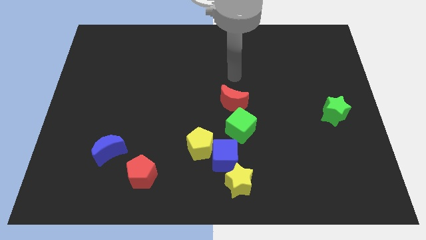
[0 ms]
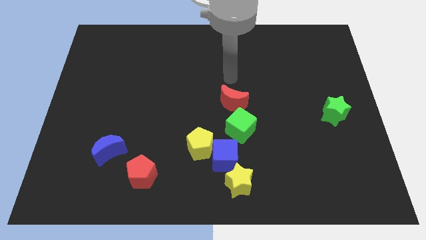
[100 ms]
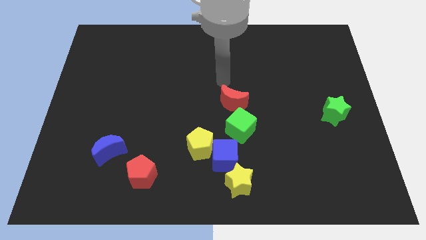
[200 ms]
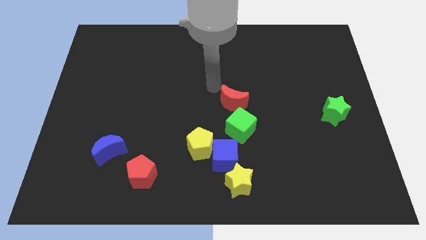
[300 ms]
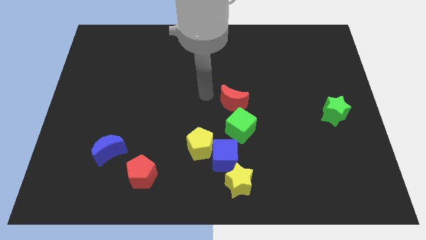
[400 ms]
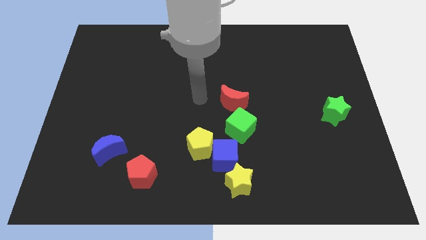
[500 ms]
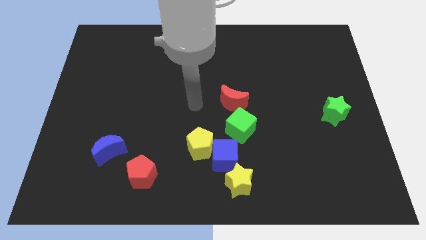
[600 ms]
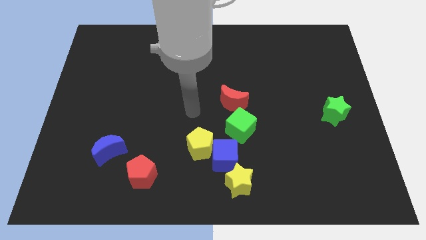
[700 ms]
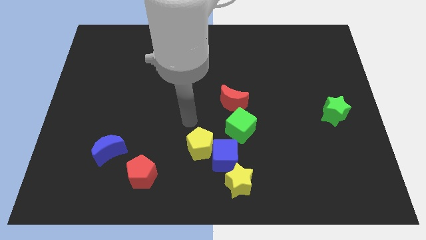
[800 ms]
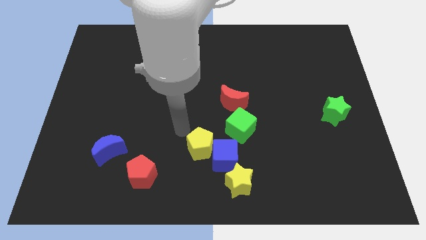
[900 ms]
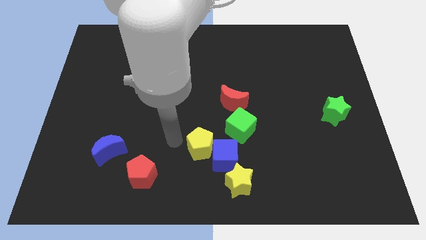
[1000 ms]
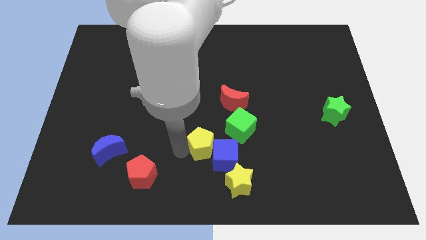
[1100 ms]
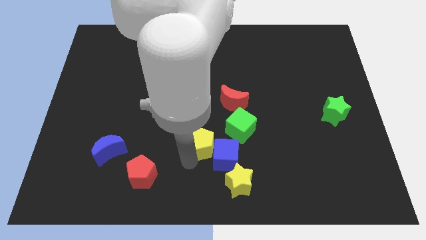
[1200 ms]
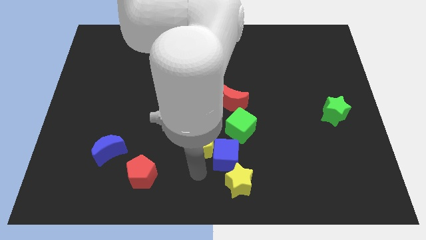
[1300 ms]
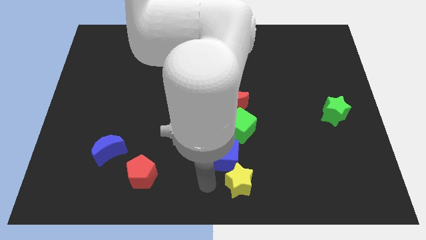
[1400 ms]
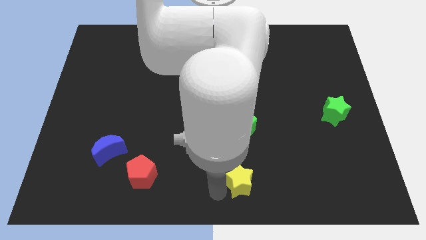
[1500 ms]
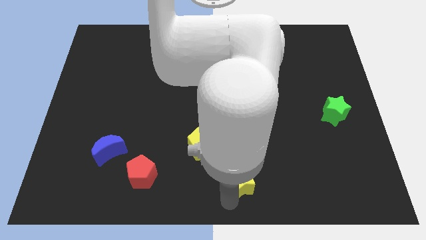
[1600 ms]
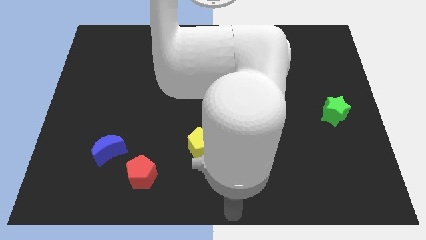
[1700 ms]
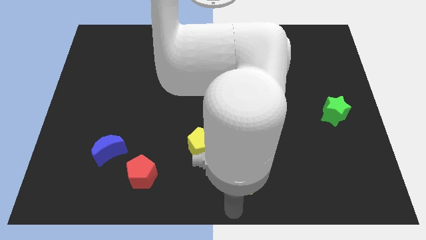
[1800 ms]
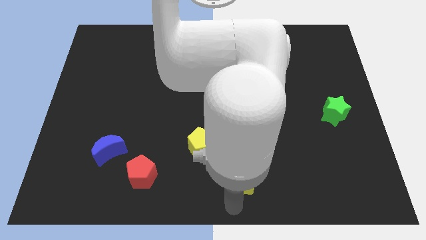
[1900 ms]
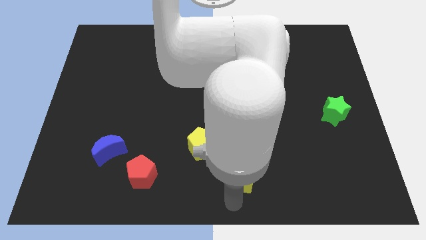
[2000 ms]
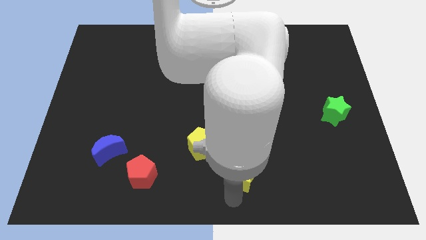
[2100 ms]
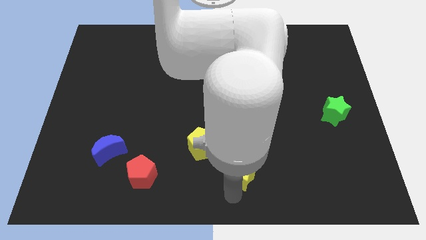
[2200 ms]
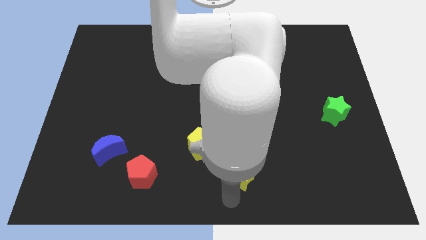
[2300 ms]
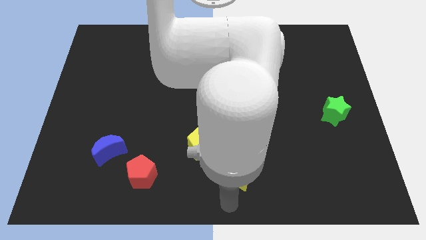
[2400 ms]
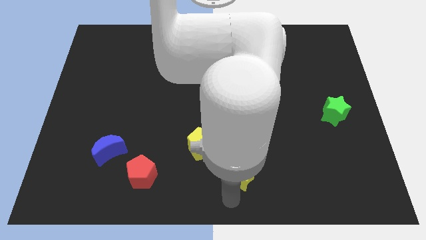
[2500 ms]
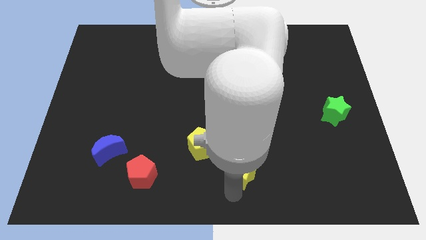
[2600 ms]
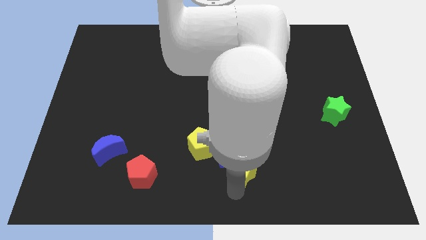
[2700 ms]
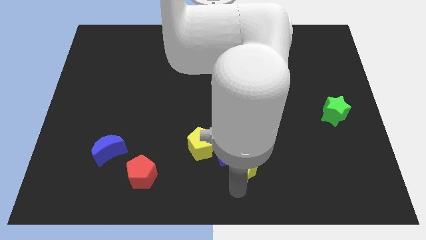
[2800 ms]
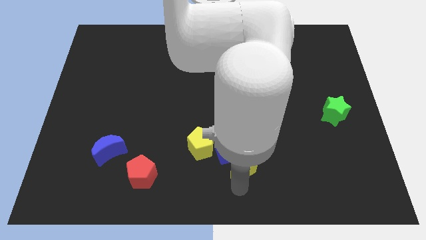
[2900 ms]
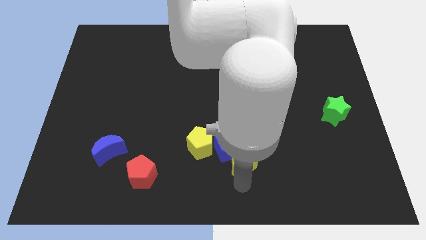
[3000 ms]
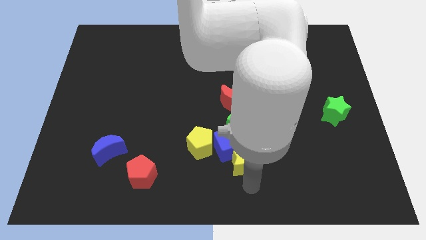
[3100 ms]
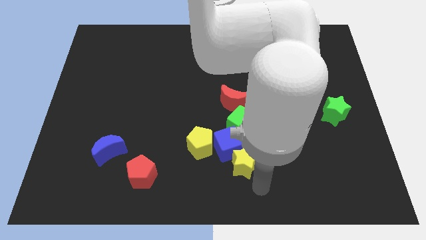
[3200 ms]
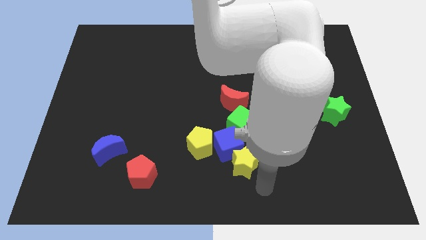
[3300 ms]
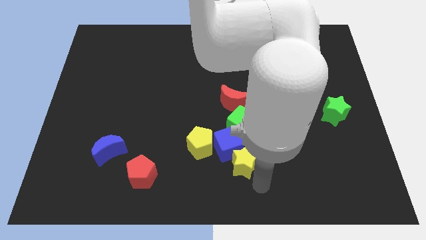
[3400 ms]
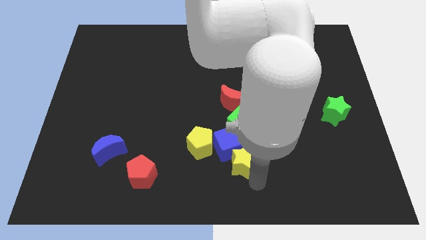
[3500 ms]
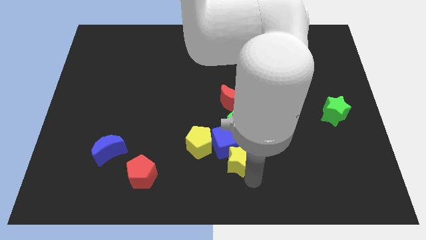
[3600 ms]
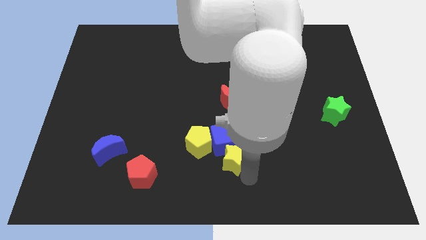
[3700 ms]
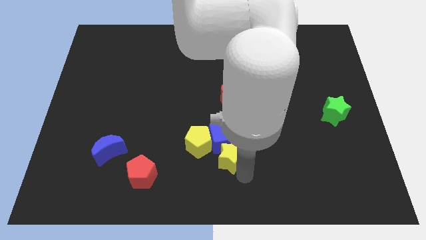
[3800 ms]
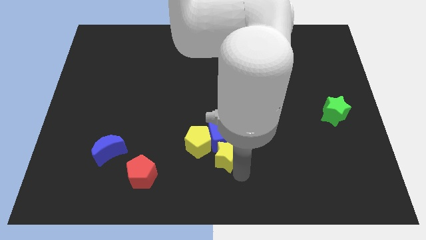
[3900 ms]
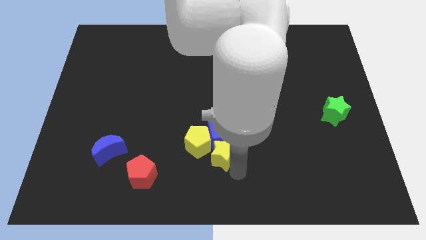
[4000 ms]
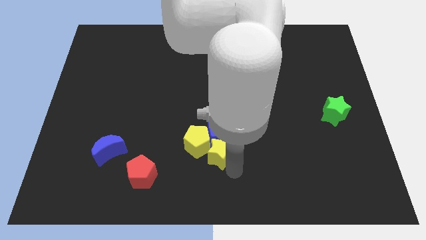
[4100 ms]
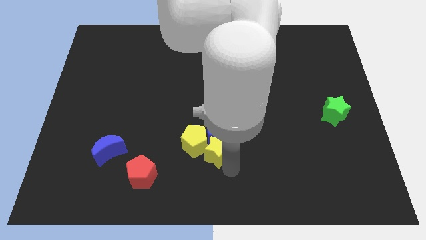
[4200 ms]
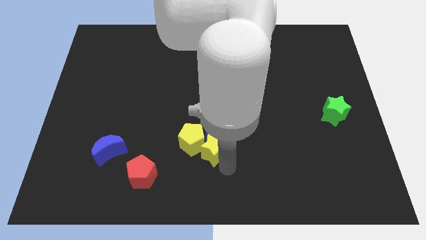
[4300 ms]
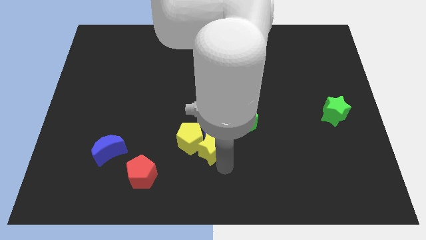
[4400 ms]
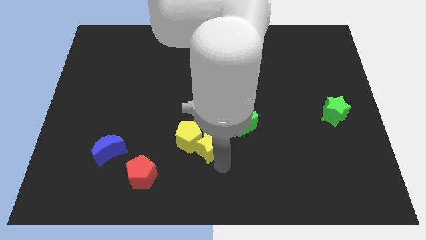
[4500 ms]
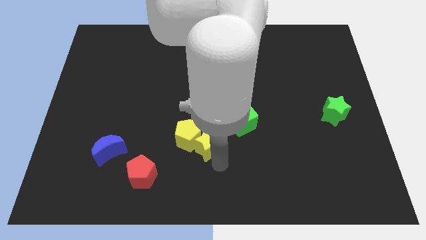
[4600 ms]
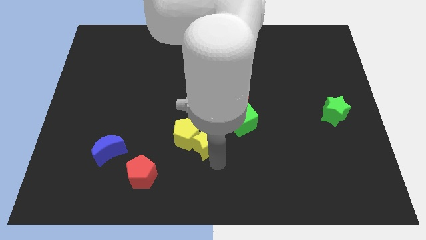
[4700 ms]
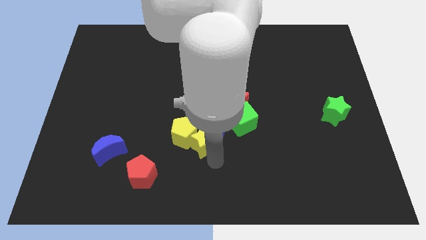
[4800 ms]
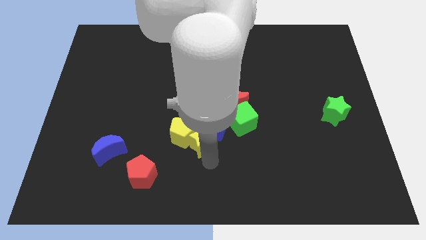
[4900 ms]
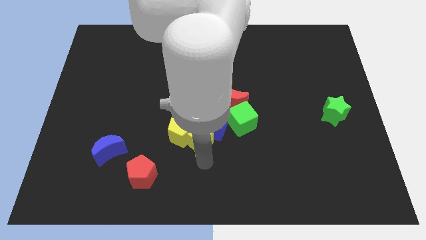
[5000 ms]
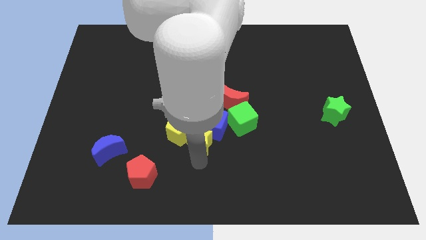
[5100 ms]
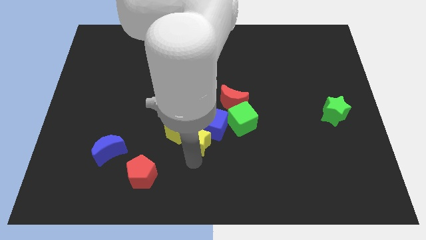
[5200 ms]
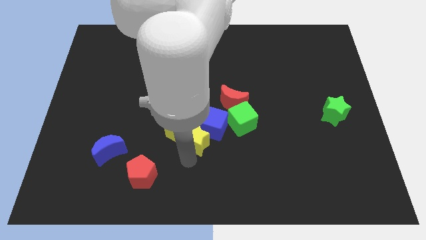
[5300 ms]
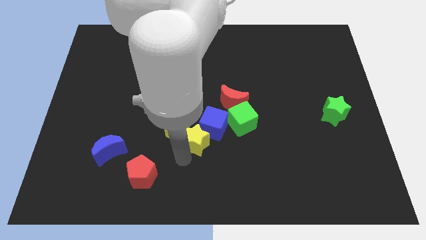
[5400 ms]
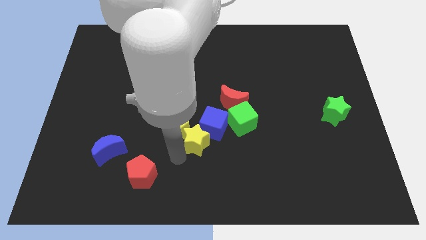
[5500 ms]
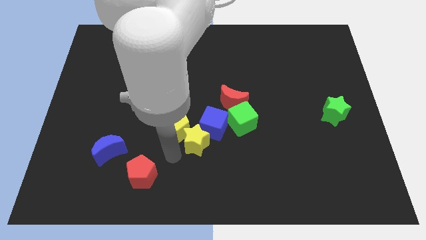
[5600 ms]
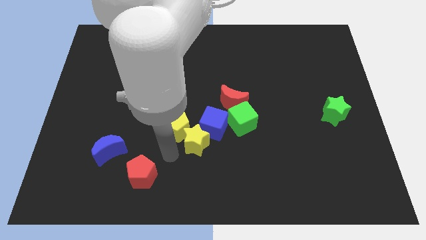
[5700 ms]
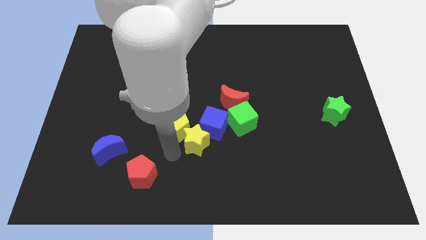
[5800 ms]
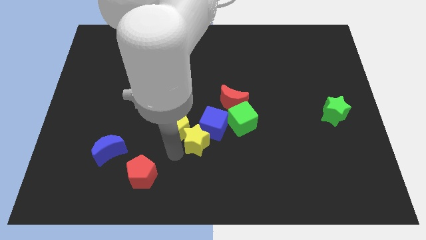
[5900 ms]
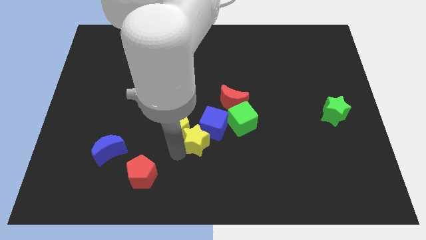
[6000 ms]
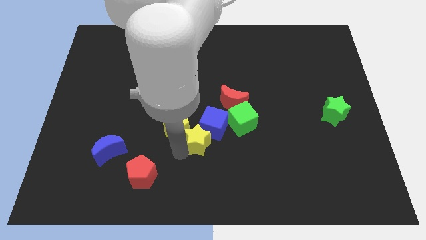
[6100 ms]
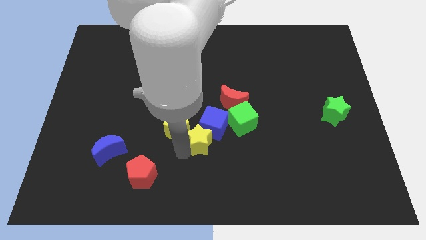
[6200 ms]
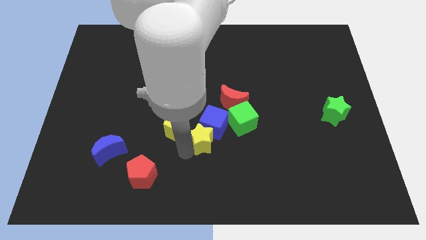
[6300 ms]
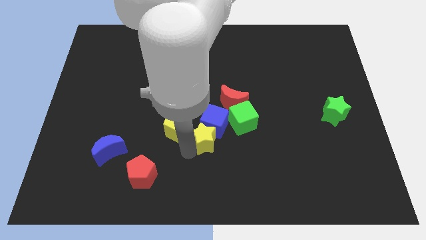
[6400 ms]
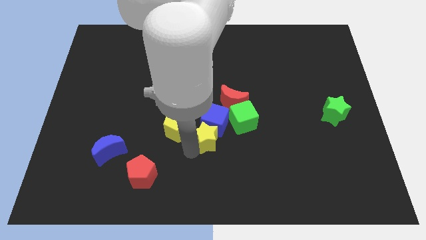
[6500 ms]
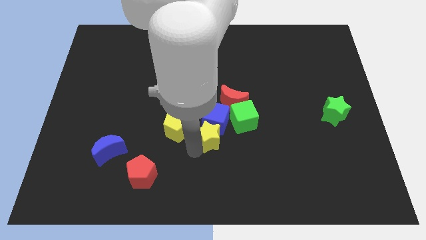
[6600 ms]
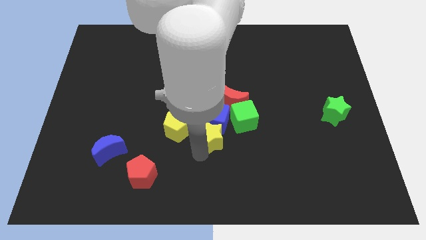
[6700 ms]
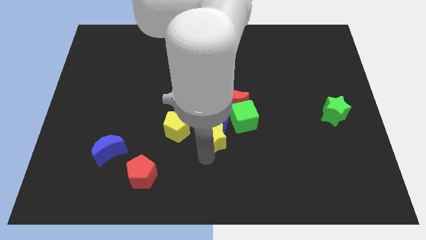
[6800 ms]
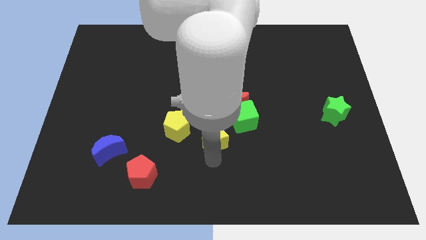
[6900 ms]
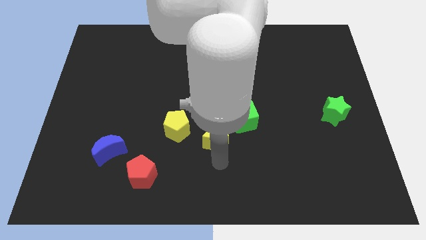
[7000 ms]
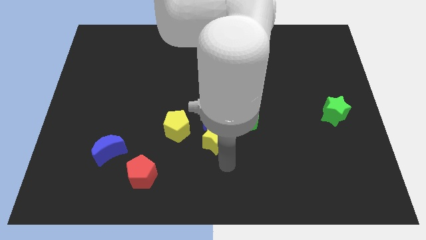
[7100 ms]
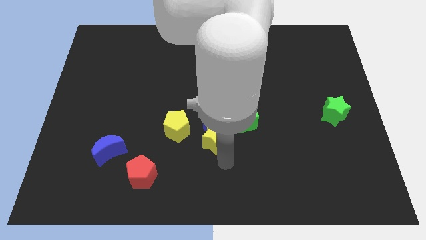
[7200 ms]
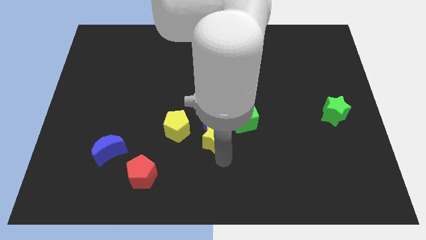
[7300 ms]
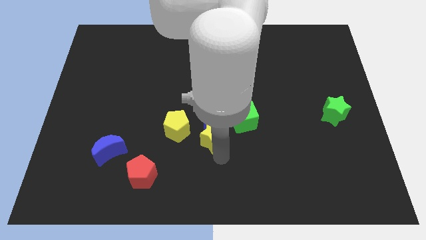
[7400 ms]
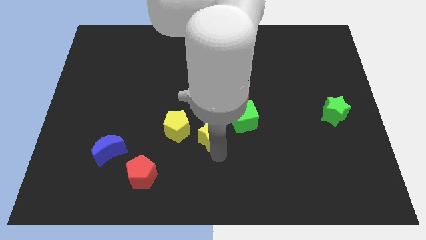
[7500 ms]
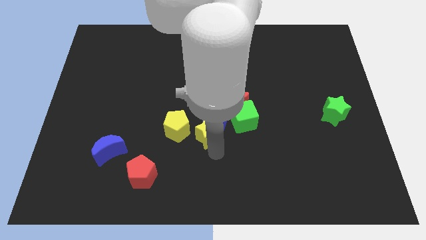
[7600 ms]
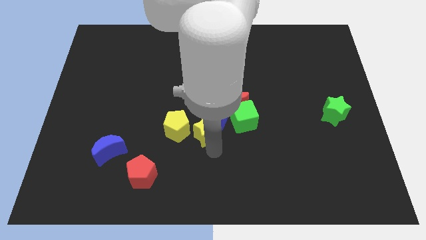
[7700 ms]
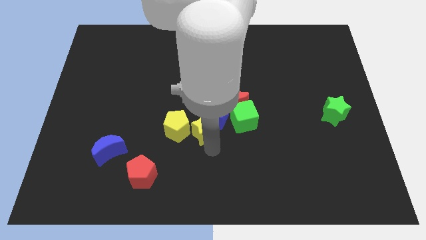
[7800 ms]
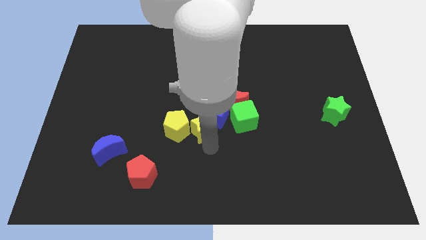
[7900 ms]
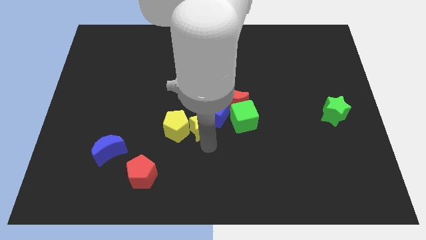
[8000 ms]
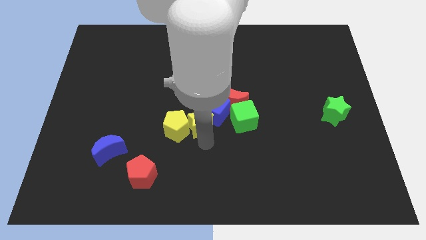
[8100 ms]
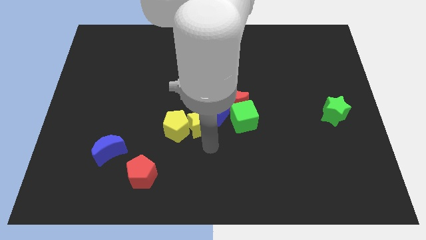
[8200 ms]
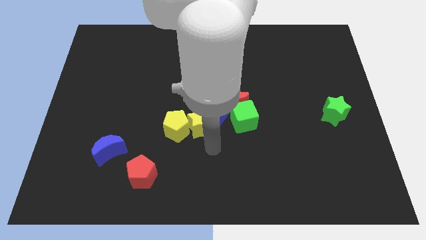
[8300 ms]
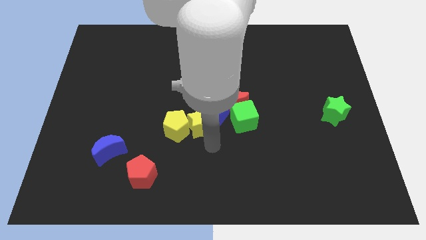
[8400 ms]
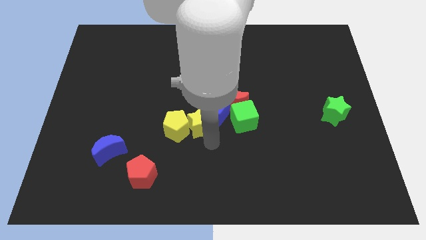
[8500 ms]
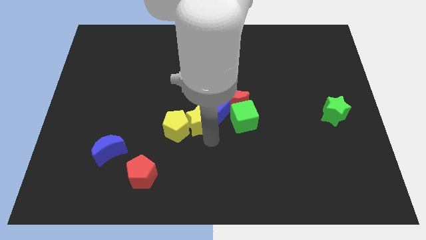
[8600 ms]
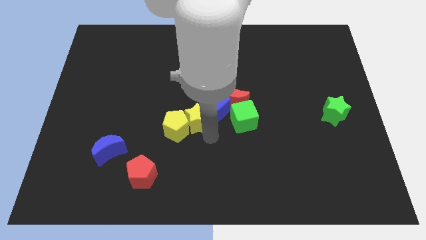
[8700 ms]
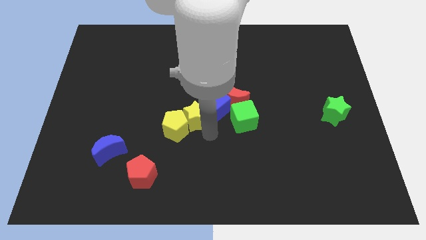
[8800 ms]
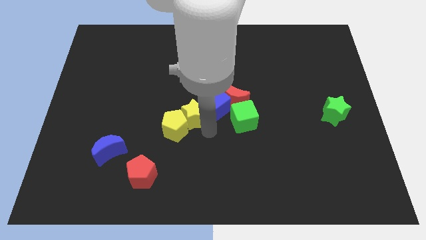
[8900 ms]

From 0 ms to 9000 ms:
slide the yellow star to the left side of the red moon
